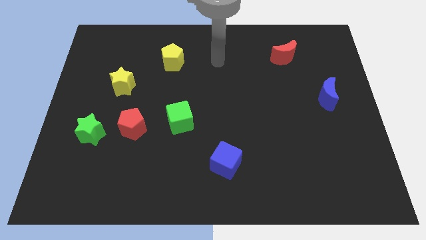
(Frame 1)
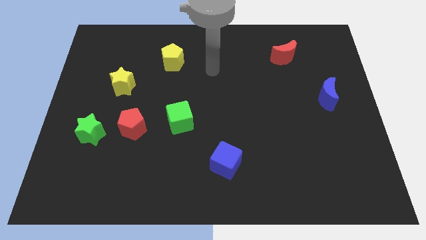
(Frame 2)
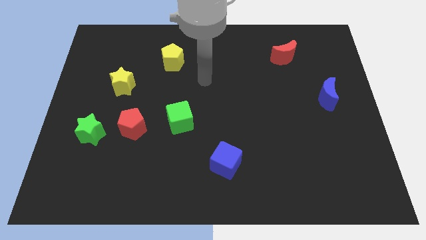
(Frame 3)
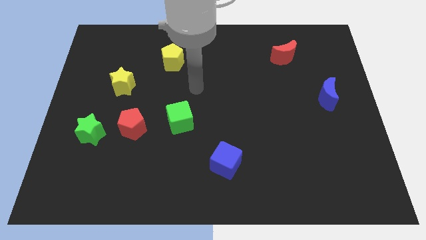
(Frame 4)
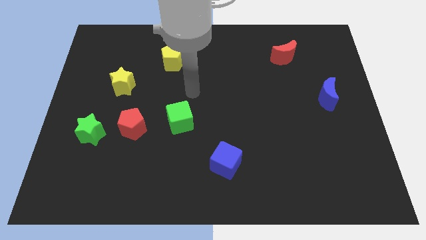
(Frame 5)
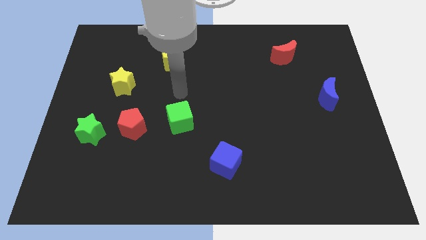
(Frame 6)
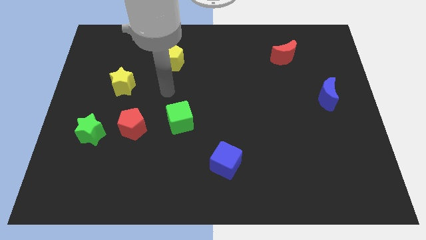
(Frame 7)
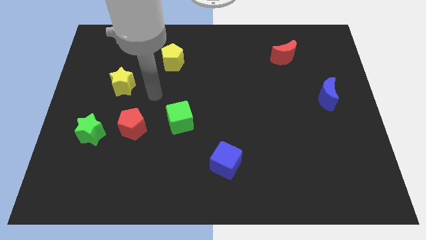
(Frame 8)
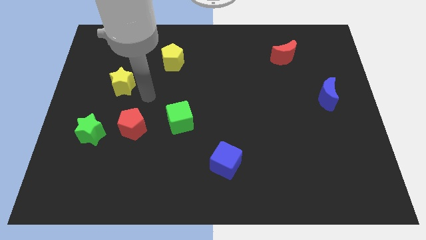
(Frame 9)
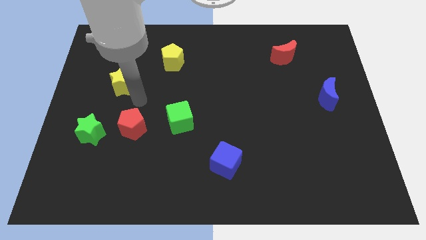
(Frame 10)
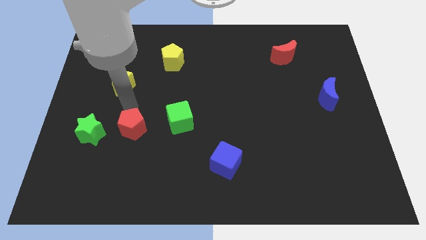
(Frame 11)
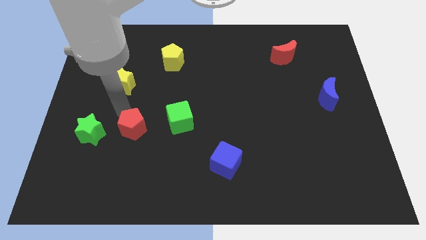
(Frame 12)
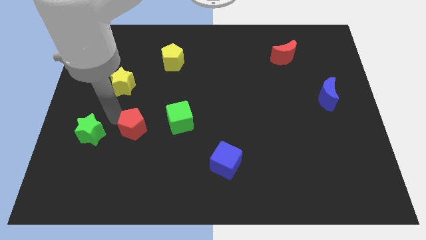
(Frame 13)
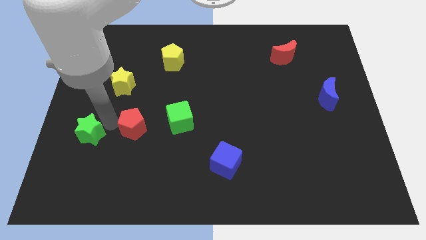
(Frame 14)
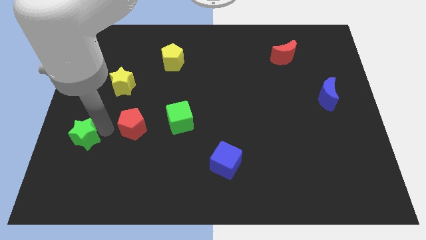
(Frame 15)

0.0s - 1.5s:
pull the red pentagon apart from the green star

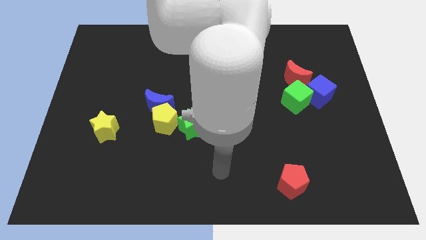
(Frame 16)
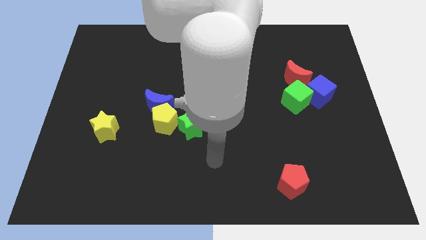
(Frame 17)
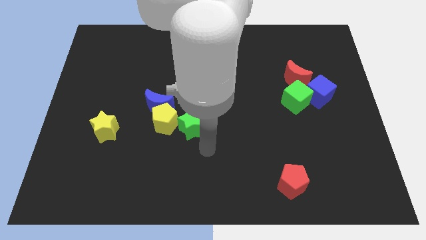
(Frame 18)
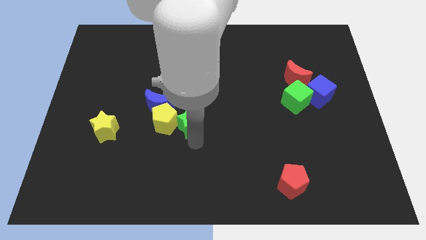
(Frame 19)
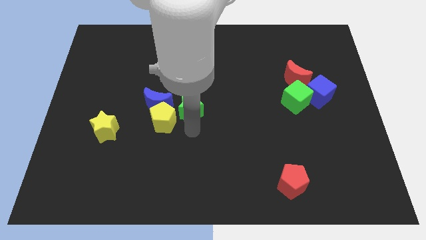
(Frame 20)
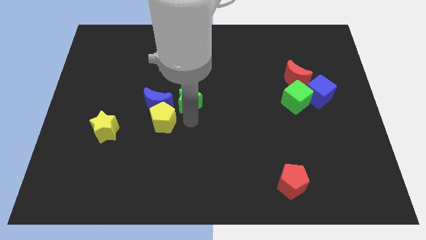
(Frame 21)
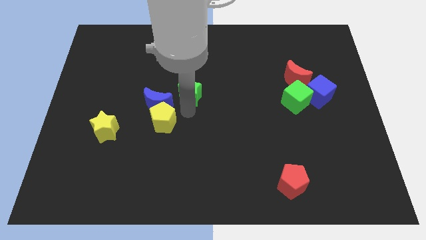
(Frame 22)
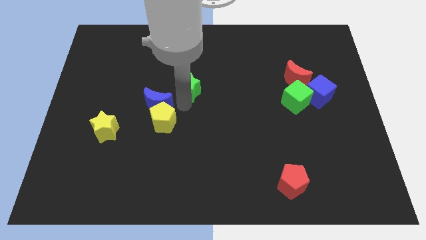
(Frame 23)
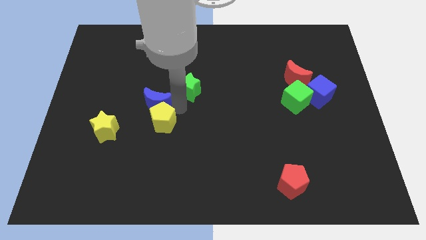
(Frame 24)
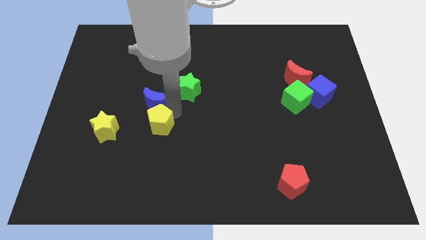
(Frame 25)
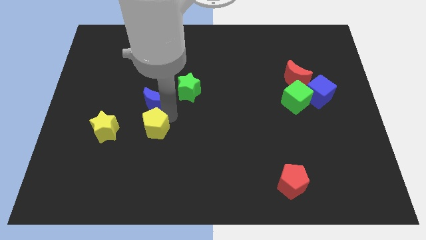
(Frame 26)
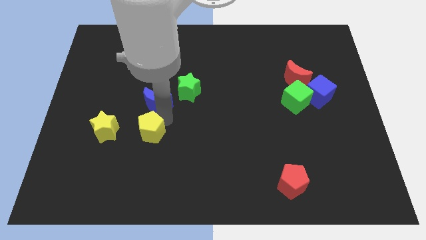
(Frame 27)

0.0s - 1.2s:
separate the yellow pentagon from the blue moon and green star

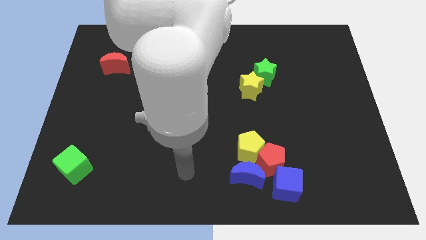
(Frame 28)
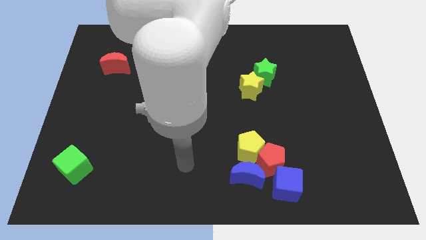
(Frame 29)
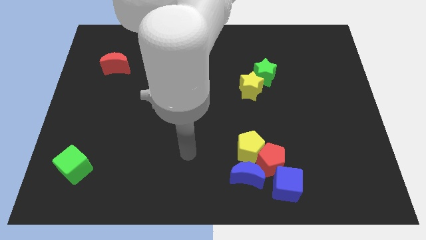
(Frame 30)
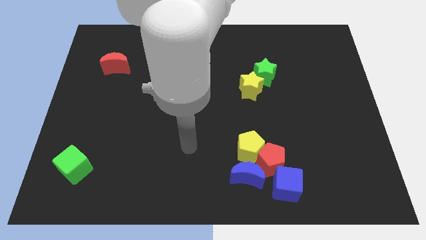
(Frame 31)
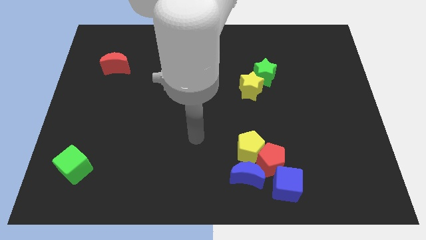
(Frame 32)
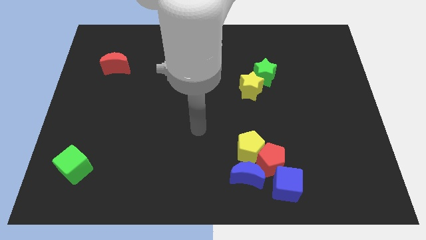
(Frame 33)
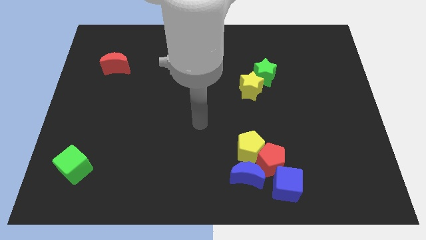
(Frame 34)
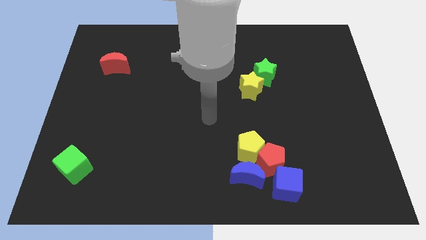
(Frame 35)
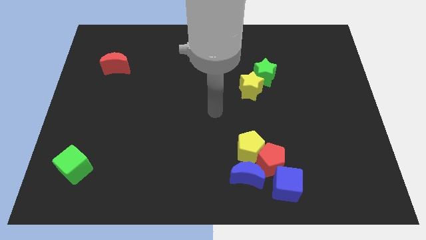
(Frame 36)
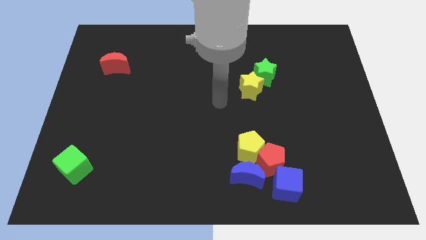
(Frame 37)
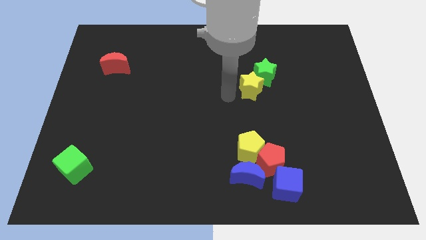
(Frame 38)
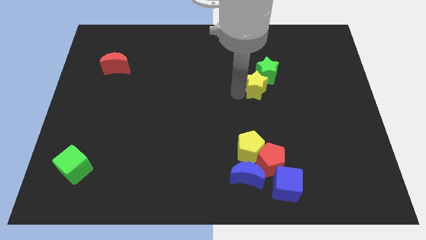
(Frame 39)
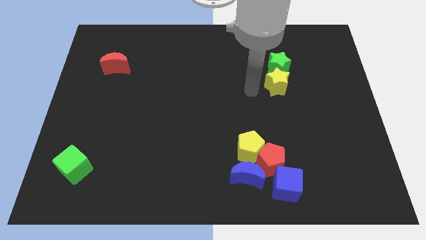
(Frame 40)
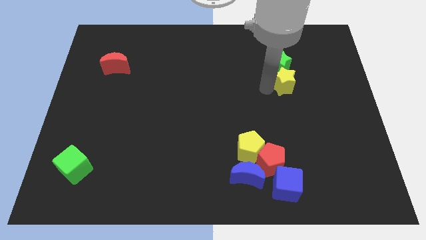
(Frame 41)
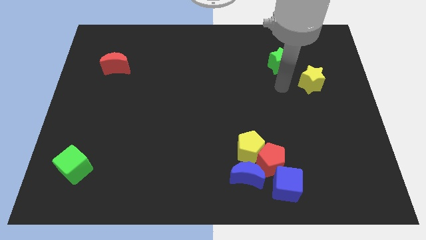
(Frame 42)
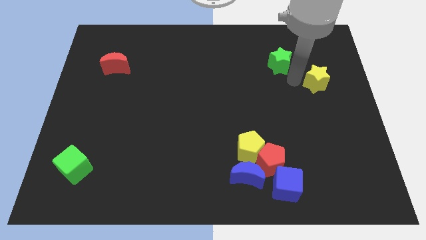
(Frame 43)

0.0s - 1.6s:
move the green star away from the yellow star

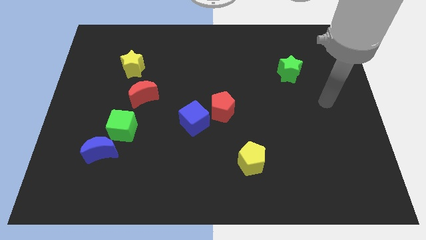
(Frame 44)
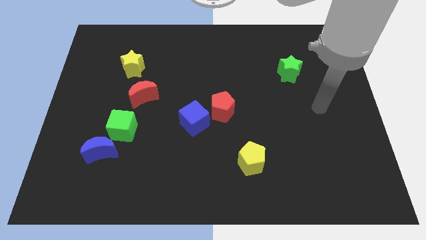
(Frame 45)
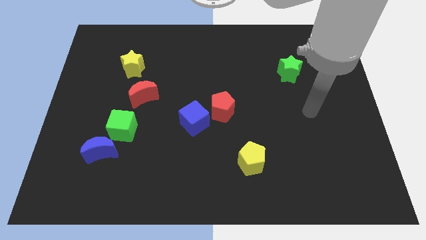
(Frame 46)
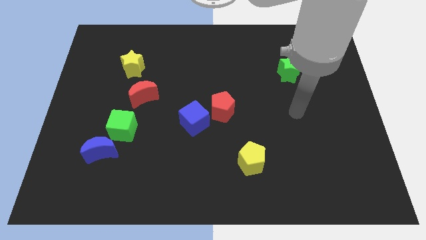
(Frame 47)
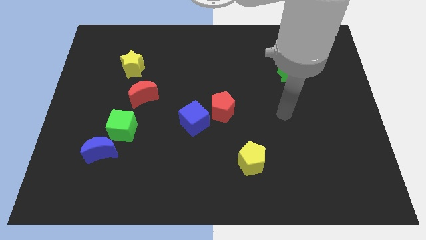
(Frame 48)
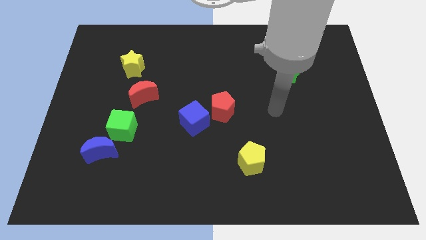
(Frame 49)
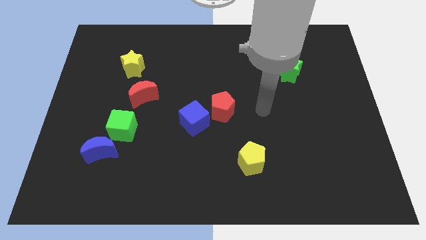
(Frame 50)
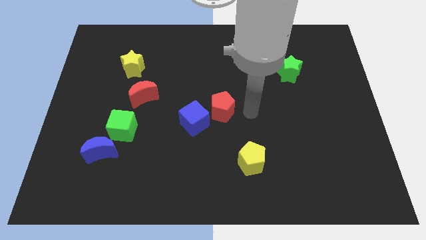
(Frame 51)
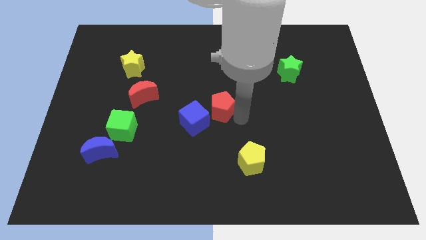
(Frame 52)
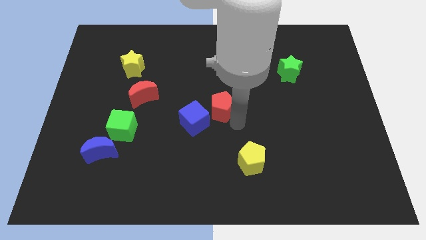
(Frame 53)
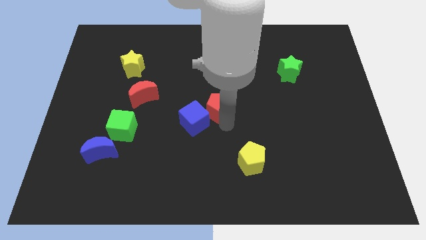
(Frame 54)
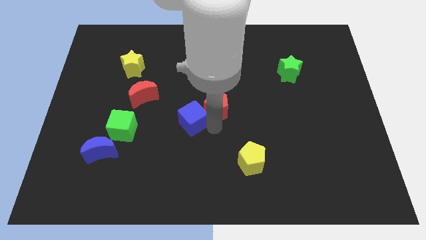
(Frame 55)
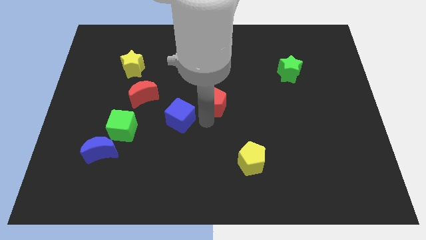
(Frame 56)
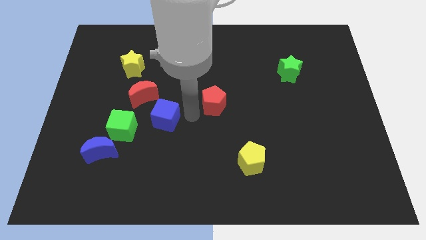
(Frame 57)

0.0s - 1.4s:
separate the red pentagon from the blue cube

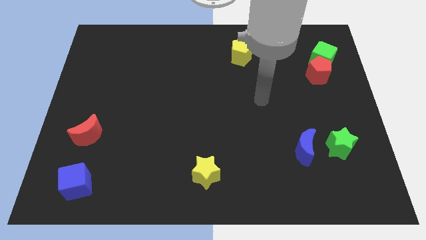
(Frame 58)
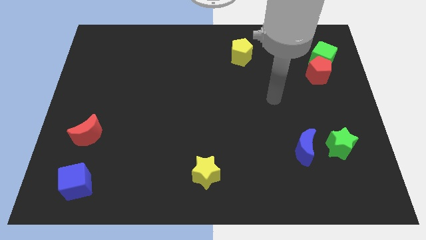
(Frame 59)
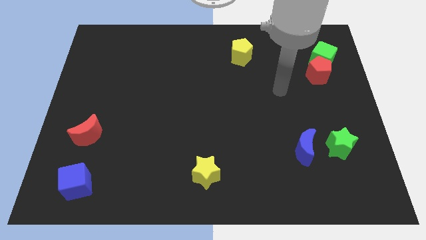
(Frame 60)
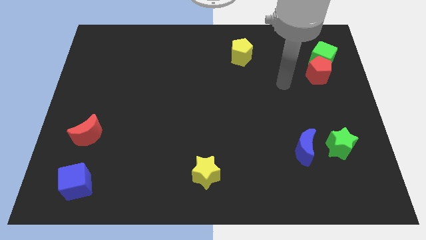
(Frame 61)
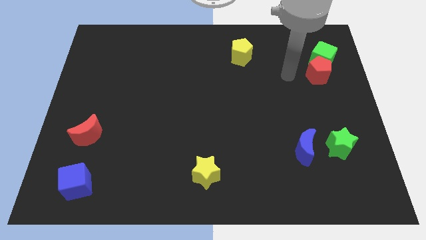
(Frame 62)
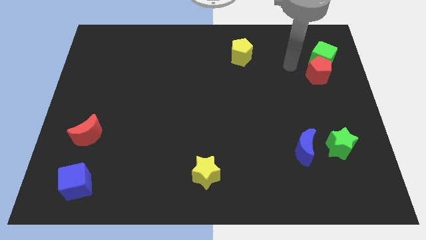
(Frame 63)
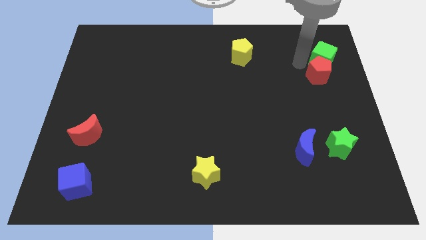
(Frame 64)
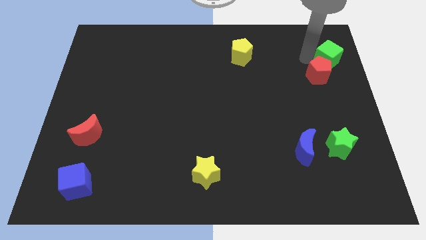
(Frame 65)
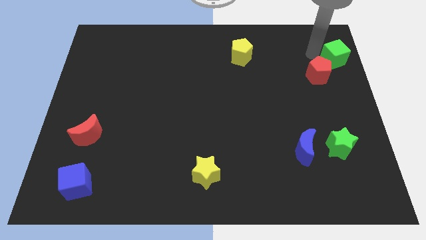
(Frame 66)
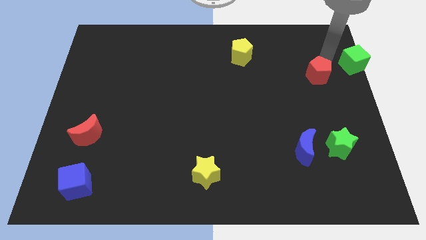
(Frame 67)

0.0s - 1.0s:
move the red pentagon away from the green cube

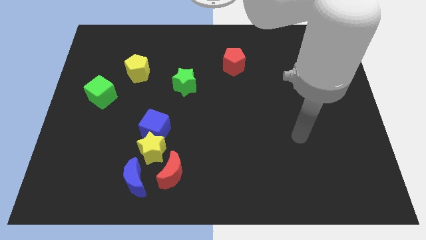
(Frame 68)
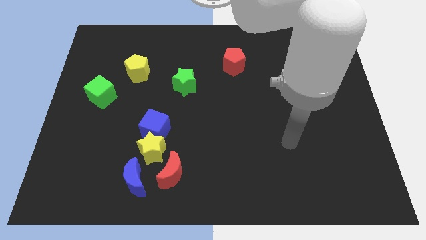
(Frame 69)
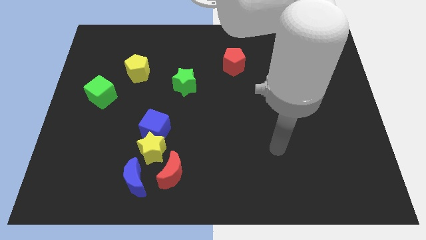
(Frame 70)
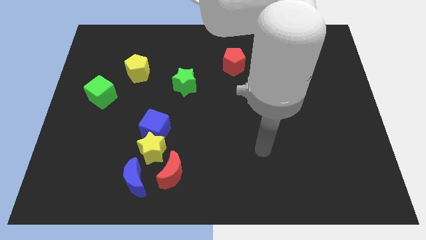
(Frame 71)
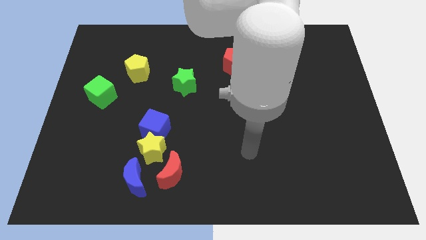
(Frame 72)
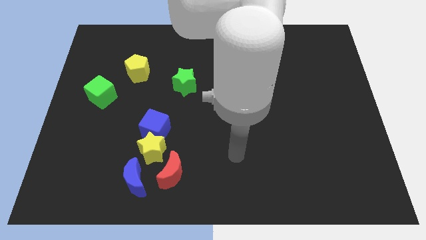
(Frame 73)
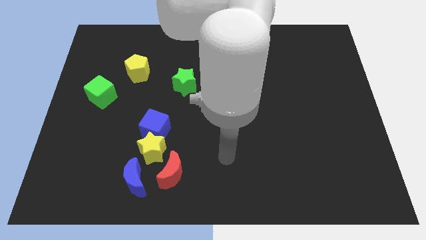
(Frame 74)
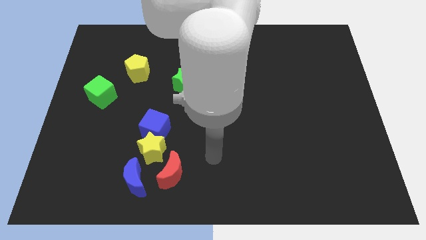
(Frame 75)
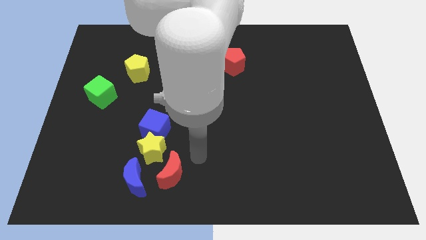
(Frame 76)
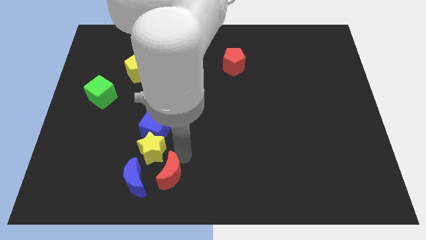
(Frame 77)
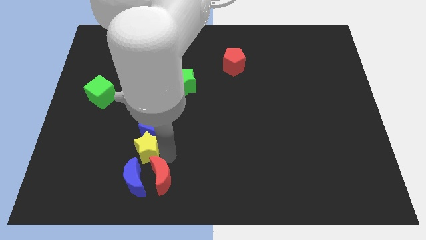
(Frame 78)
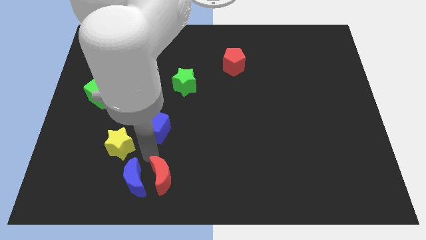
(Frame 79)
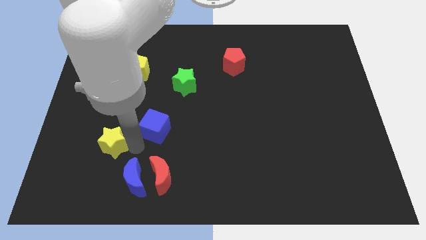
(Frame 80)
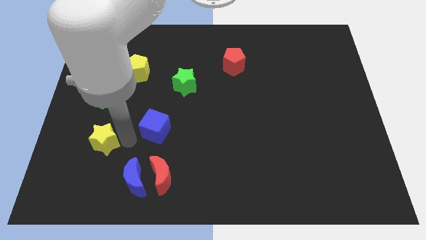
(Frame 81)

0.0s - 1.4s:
move the blue cube away from the yellow star

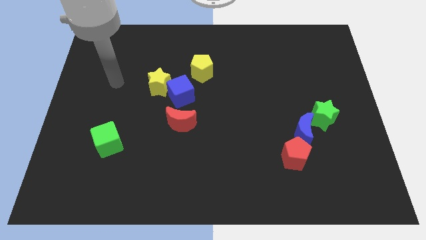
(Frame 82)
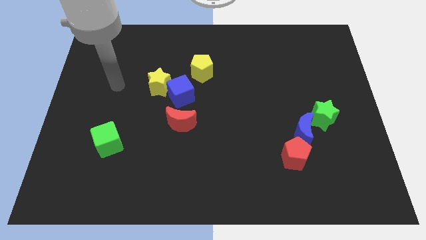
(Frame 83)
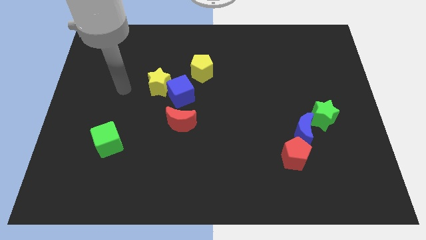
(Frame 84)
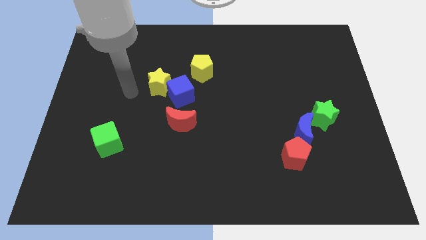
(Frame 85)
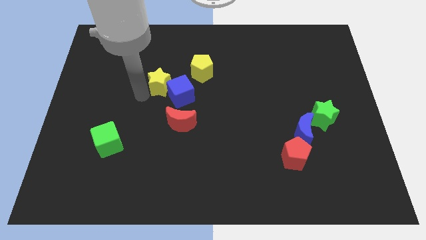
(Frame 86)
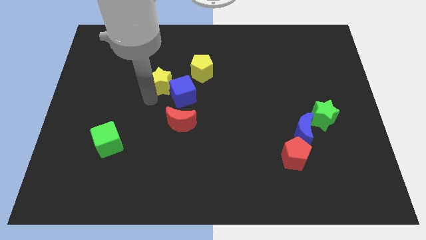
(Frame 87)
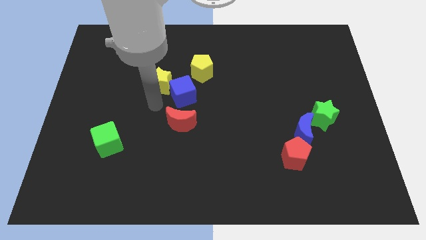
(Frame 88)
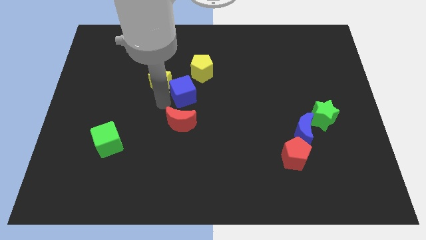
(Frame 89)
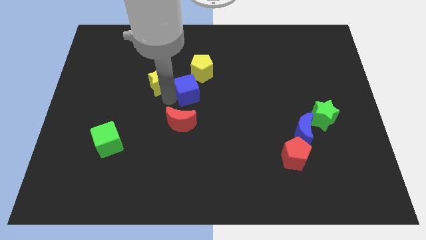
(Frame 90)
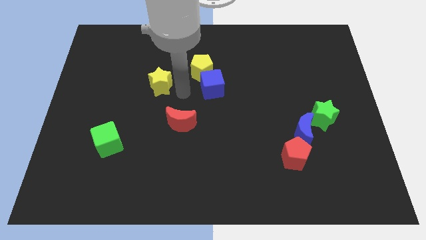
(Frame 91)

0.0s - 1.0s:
pull the yellow star apart from the blue cube

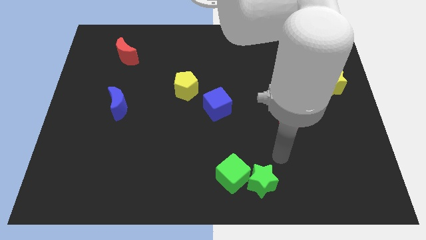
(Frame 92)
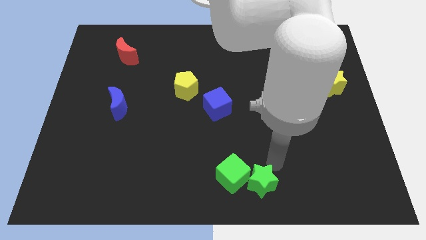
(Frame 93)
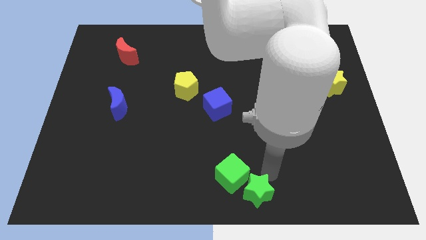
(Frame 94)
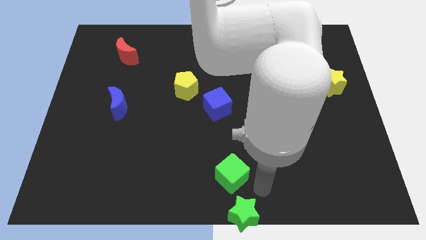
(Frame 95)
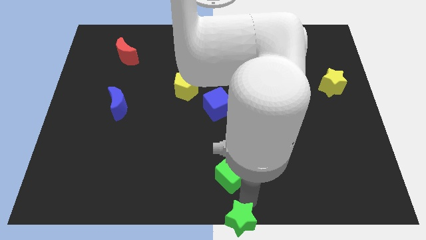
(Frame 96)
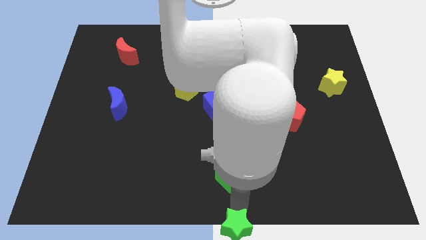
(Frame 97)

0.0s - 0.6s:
separate the green cube from the green star
